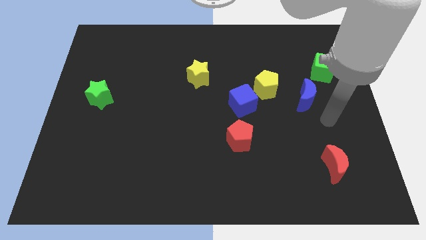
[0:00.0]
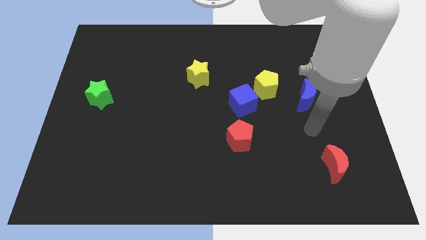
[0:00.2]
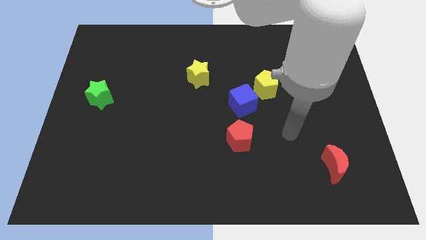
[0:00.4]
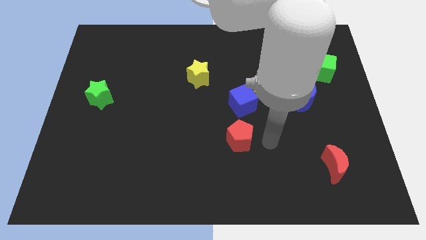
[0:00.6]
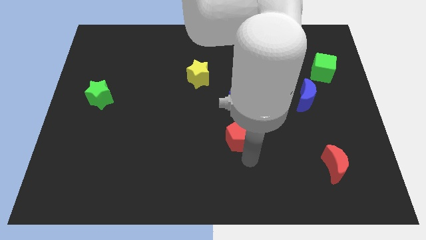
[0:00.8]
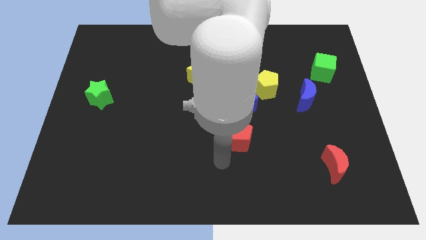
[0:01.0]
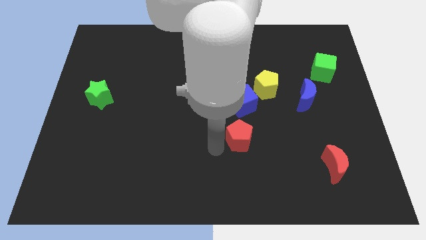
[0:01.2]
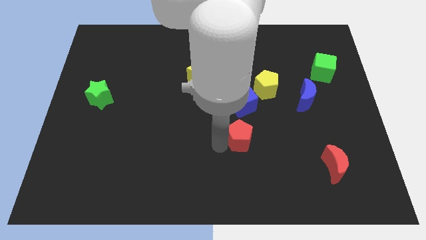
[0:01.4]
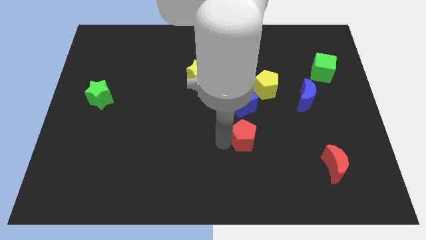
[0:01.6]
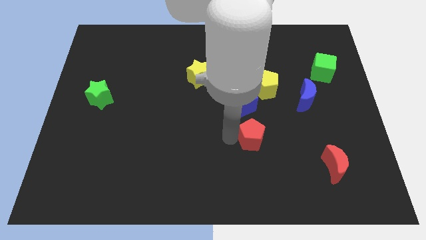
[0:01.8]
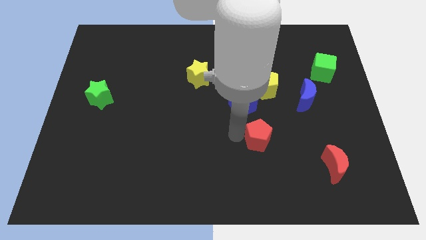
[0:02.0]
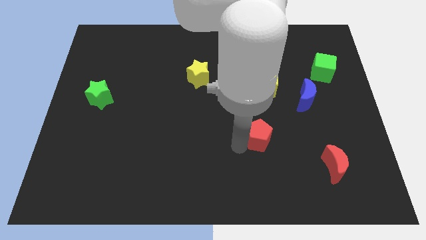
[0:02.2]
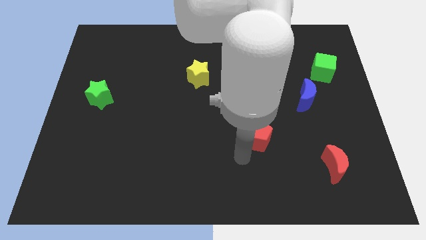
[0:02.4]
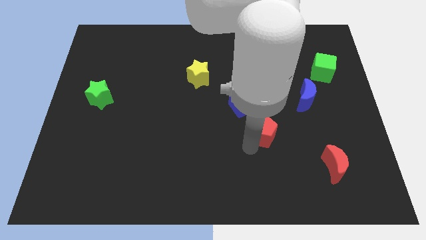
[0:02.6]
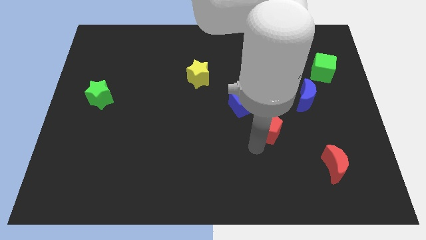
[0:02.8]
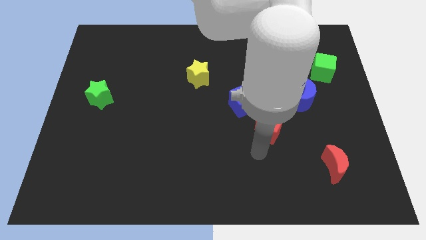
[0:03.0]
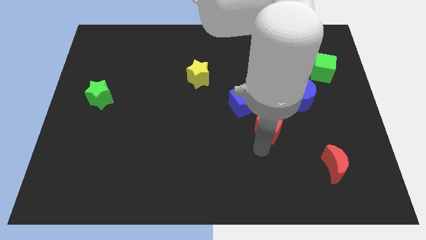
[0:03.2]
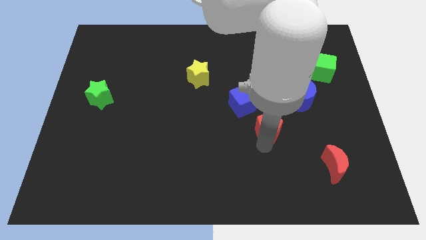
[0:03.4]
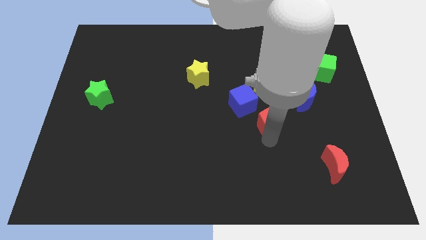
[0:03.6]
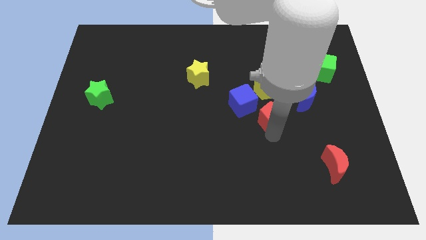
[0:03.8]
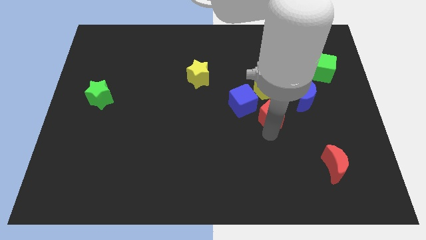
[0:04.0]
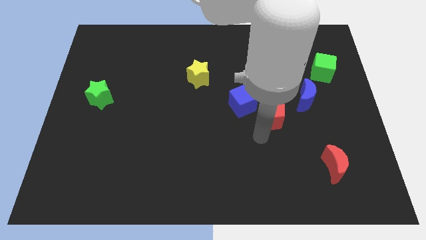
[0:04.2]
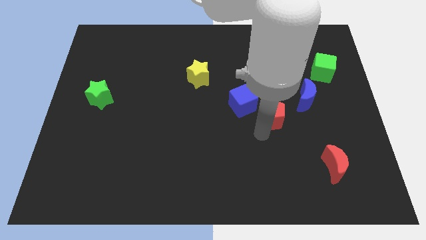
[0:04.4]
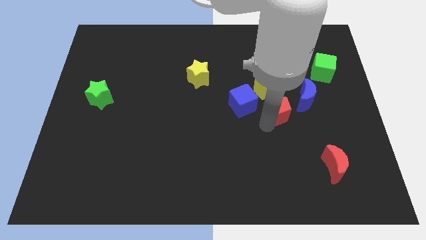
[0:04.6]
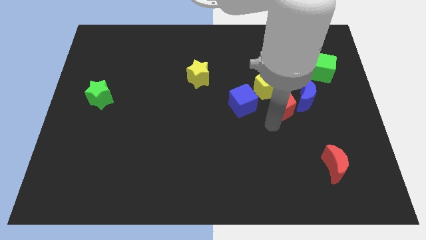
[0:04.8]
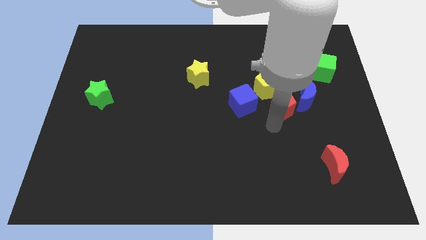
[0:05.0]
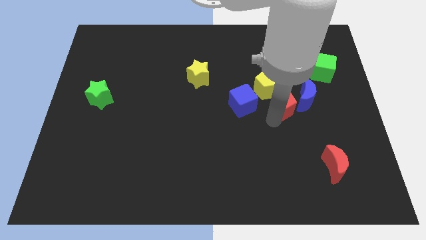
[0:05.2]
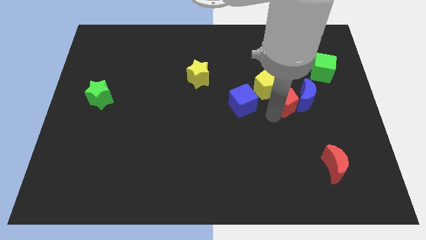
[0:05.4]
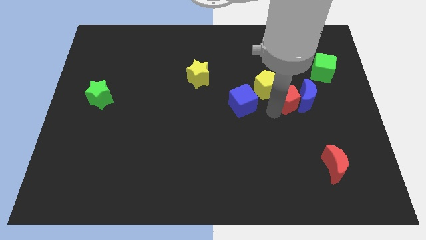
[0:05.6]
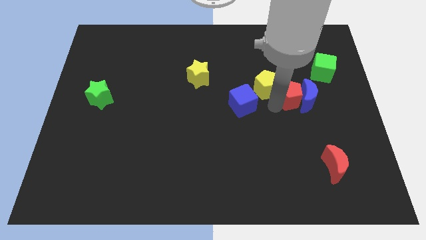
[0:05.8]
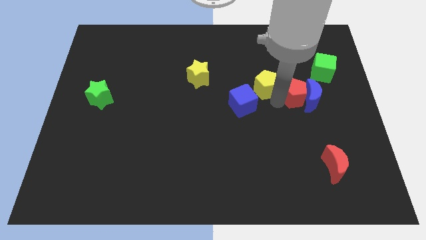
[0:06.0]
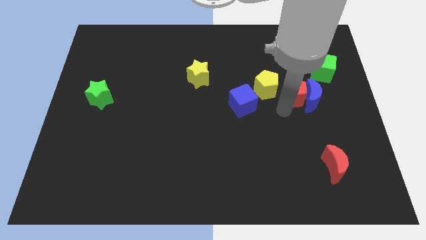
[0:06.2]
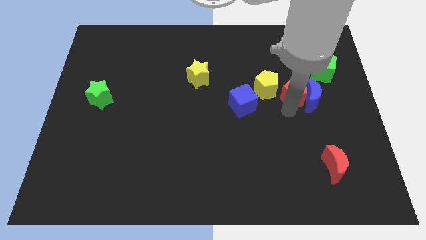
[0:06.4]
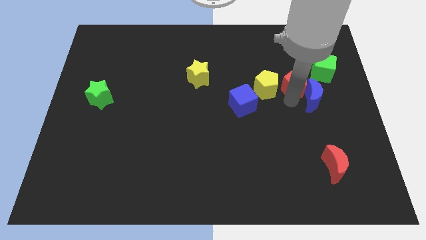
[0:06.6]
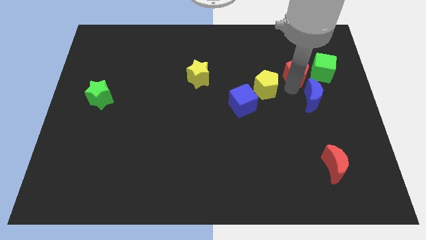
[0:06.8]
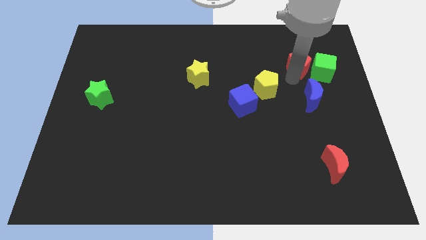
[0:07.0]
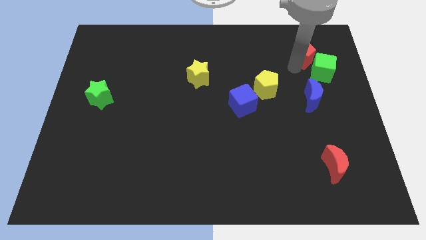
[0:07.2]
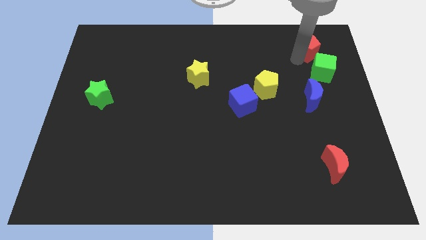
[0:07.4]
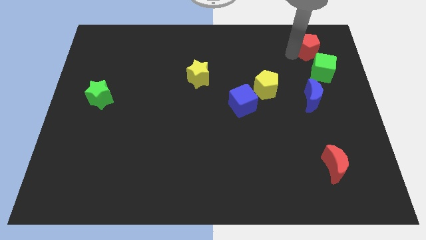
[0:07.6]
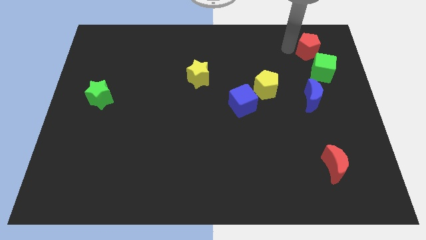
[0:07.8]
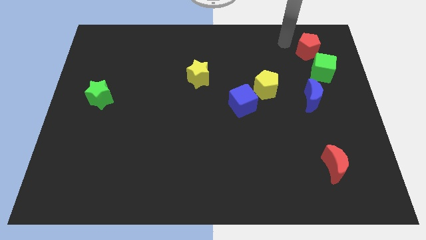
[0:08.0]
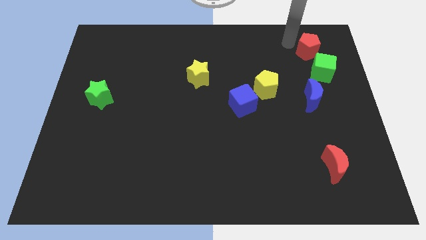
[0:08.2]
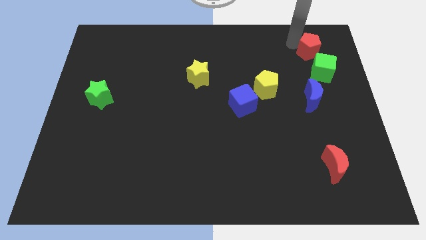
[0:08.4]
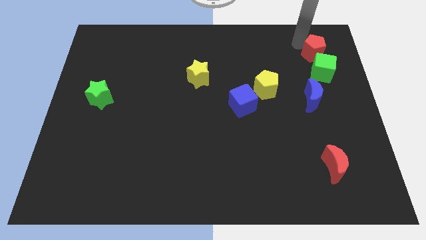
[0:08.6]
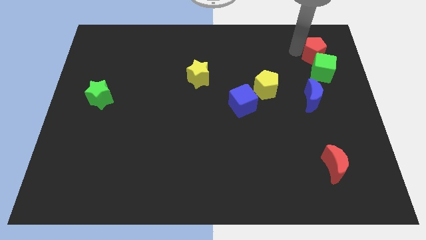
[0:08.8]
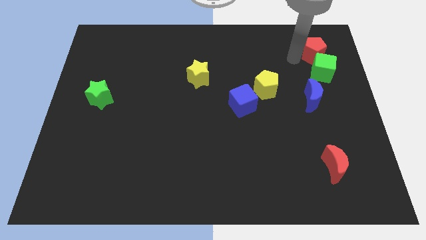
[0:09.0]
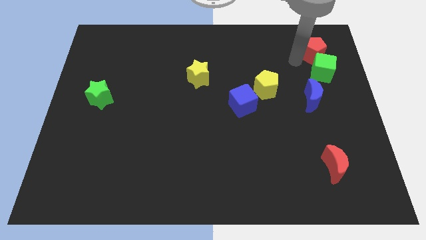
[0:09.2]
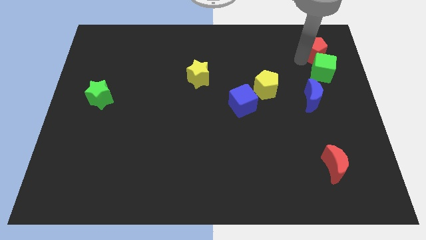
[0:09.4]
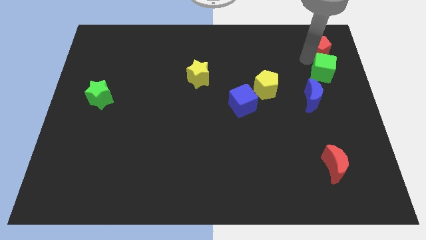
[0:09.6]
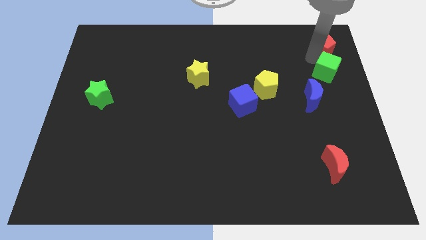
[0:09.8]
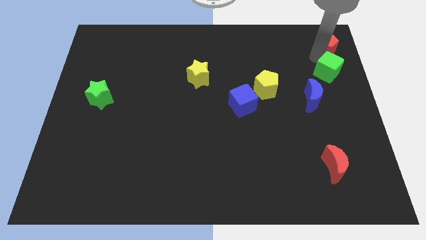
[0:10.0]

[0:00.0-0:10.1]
put the red pentagon to the top right of the board

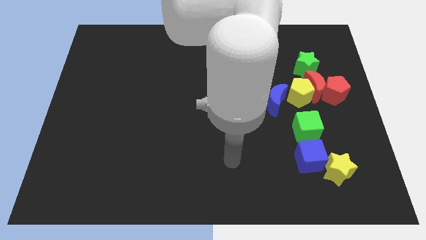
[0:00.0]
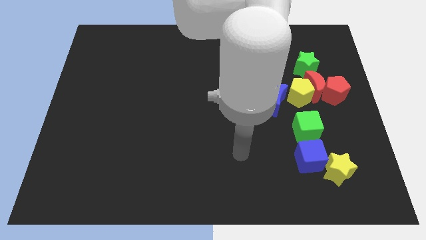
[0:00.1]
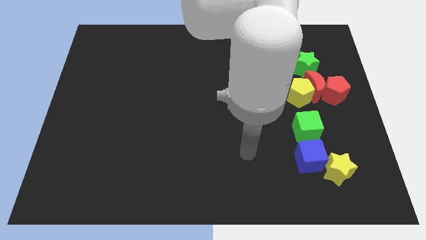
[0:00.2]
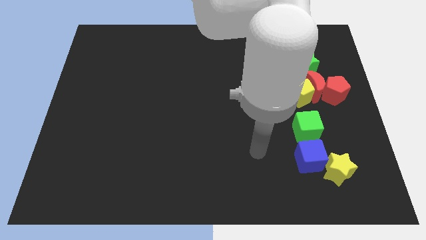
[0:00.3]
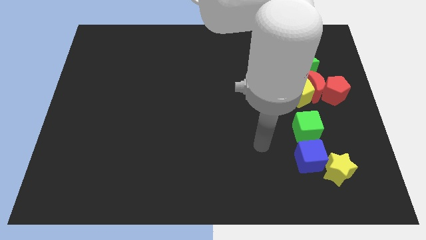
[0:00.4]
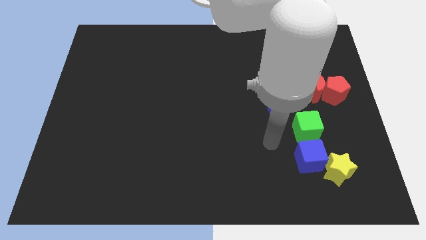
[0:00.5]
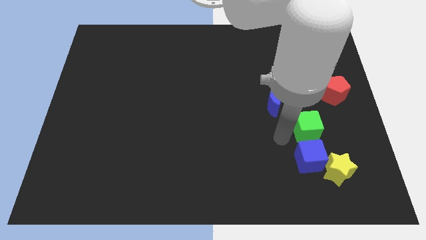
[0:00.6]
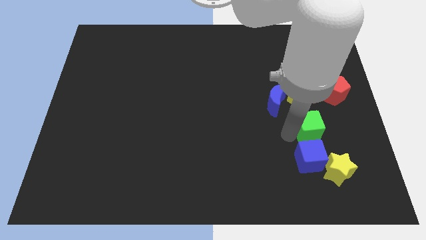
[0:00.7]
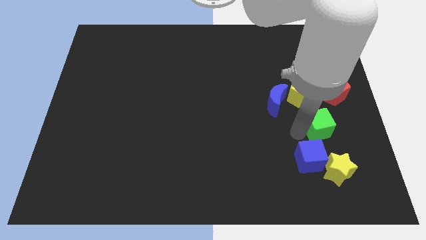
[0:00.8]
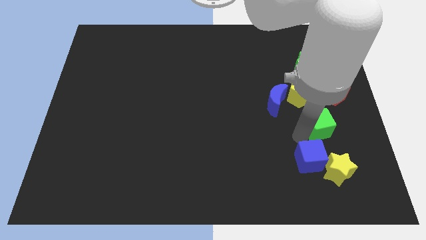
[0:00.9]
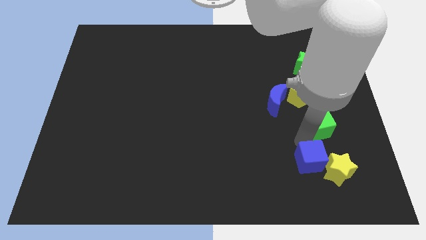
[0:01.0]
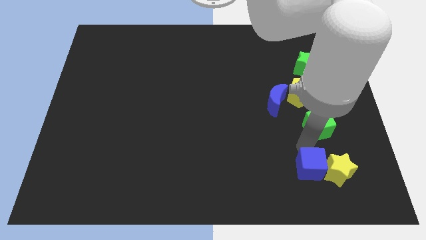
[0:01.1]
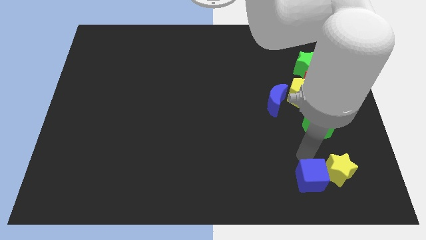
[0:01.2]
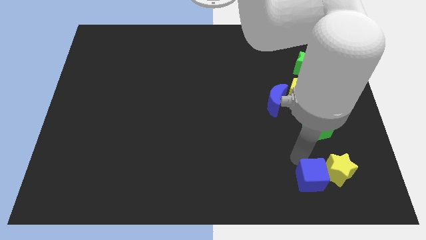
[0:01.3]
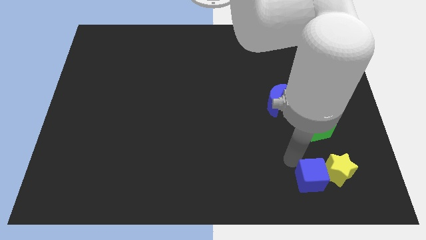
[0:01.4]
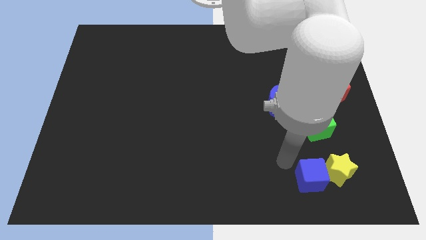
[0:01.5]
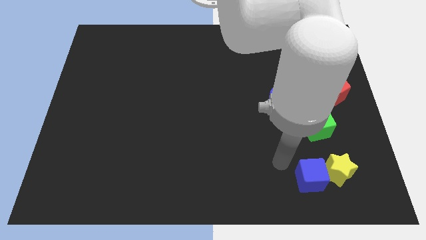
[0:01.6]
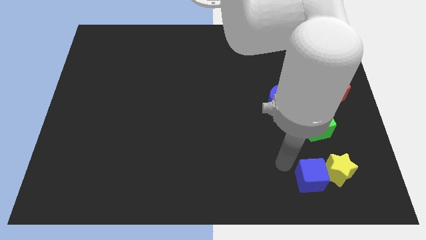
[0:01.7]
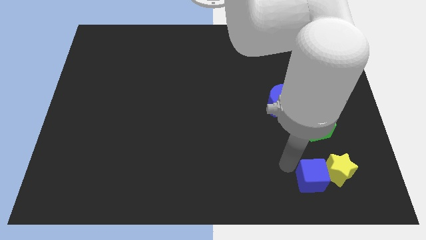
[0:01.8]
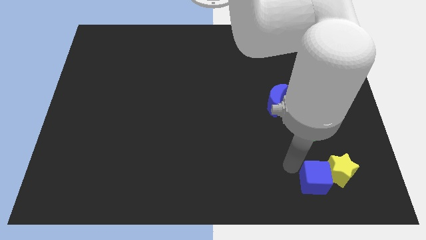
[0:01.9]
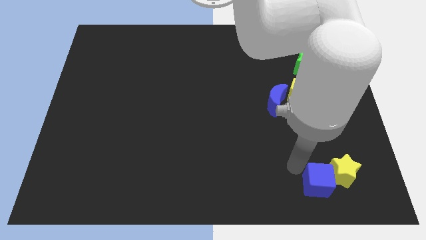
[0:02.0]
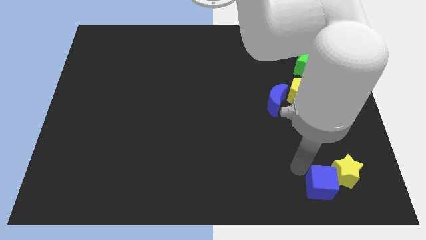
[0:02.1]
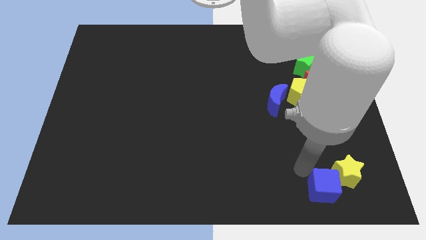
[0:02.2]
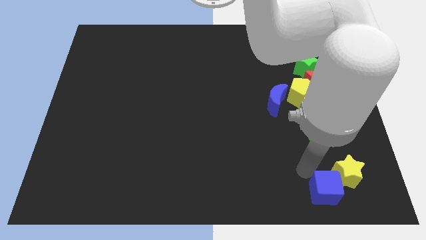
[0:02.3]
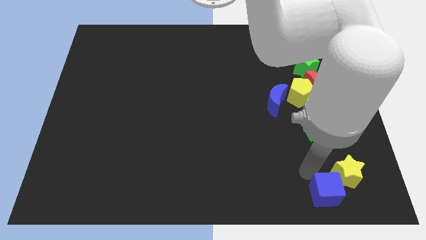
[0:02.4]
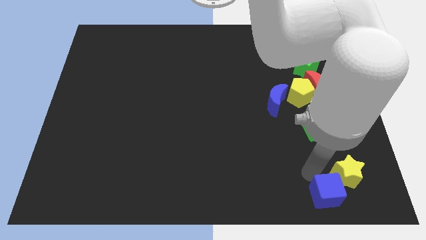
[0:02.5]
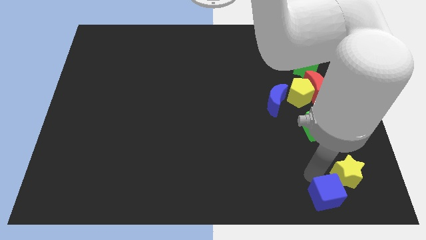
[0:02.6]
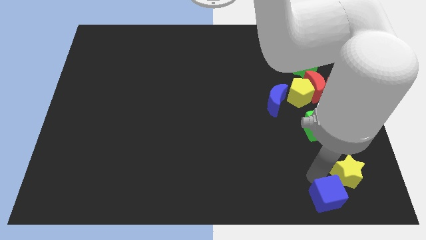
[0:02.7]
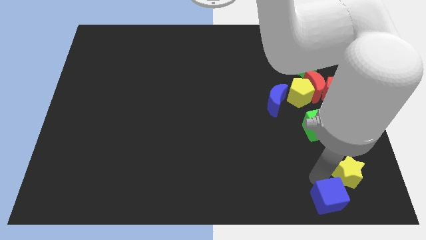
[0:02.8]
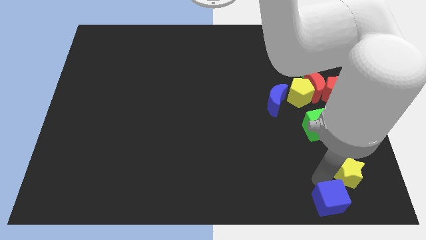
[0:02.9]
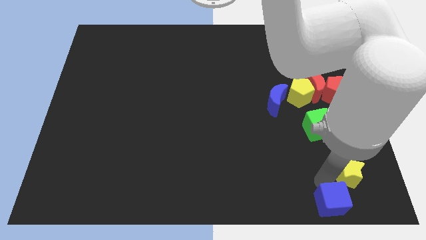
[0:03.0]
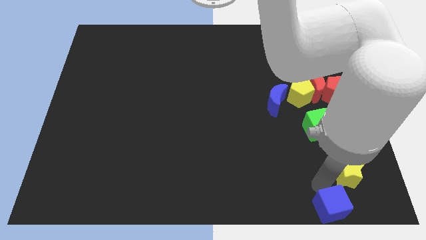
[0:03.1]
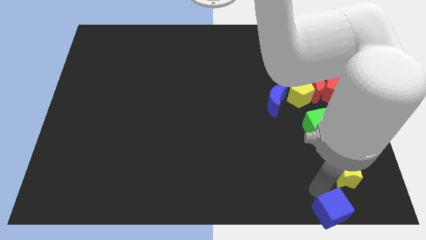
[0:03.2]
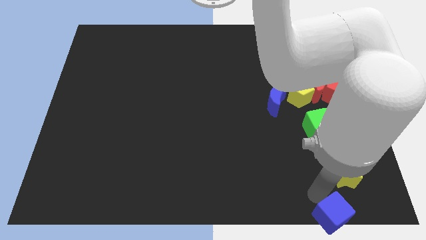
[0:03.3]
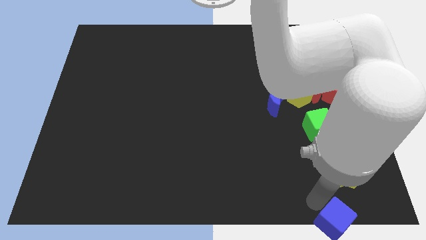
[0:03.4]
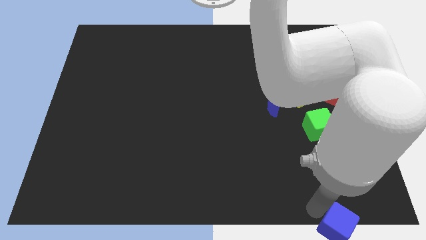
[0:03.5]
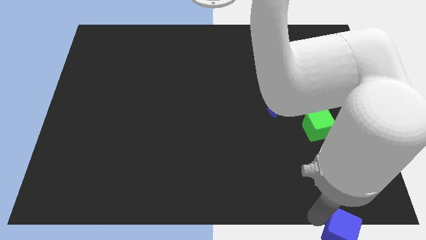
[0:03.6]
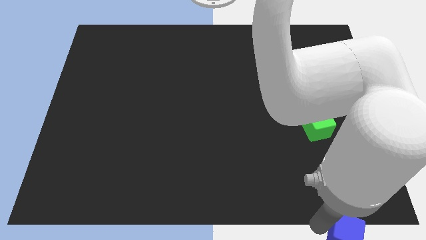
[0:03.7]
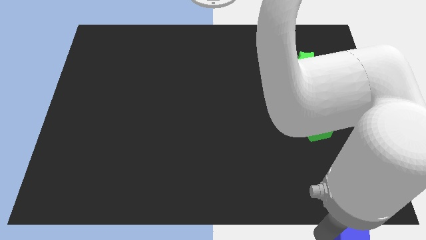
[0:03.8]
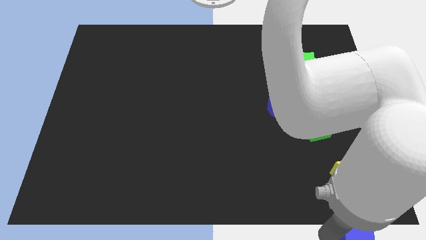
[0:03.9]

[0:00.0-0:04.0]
slide the blue cube to the lower right corner
